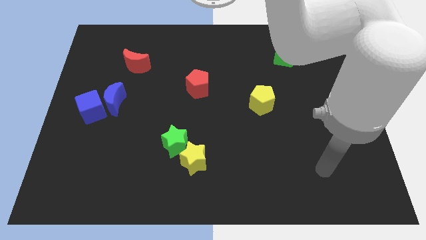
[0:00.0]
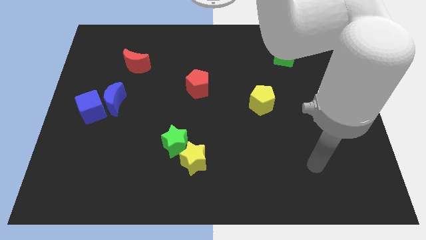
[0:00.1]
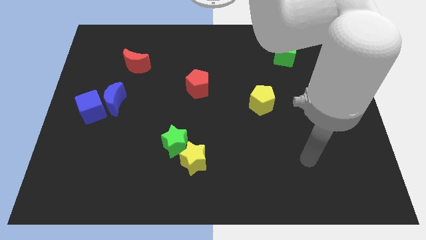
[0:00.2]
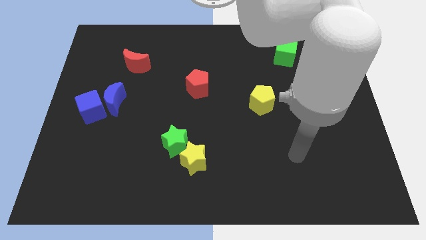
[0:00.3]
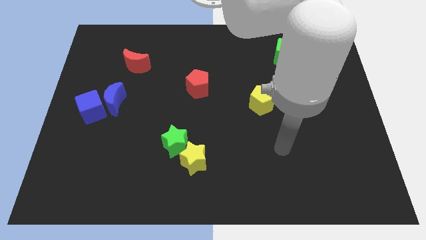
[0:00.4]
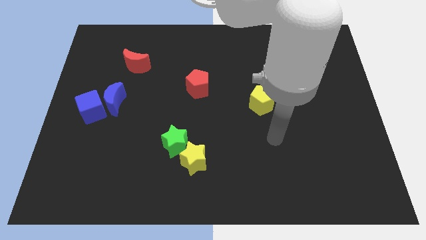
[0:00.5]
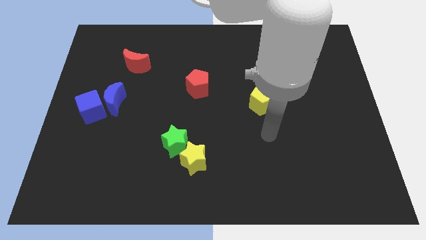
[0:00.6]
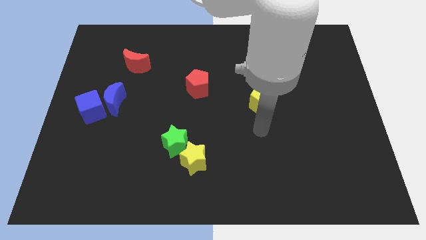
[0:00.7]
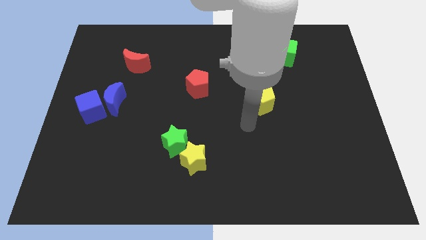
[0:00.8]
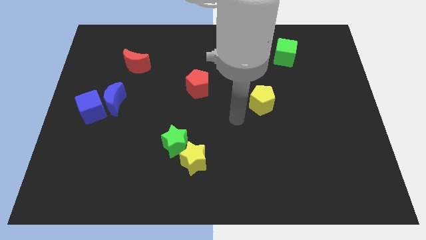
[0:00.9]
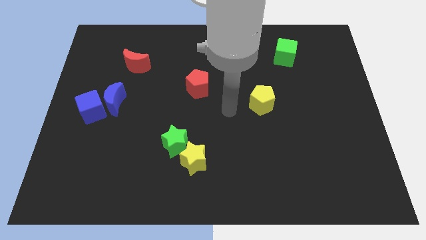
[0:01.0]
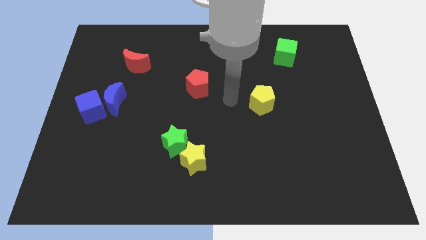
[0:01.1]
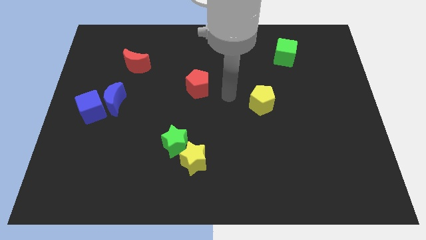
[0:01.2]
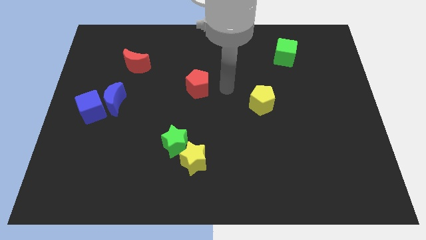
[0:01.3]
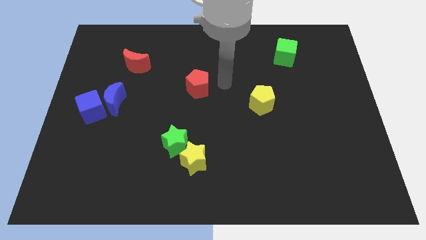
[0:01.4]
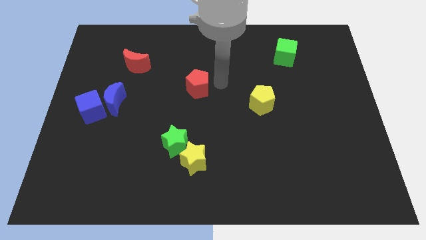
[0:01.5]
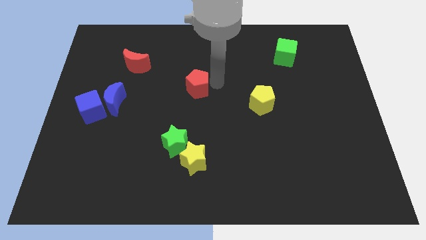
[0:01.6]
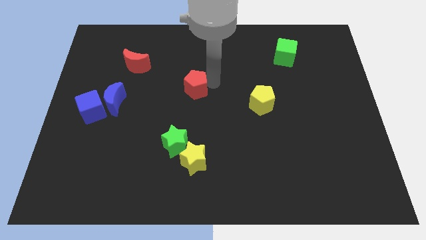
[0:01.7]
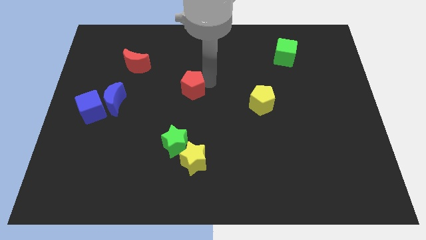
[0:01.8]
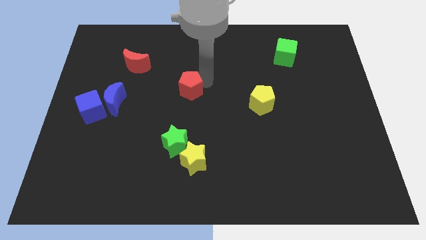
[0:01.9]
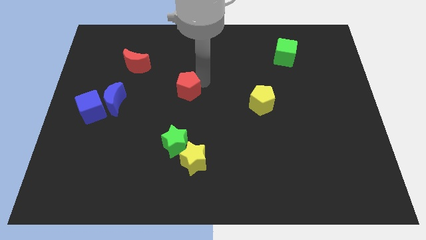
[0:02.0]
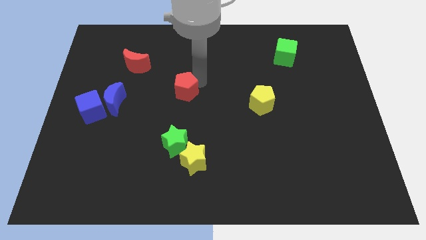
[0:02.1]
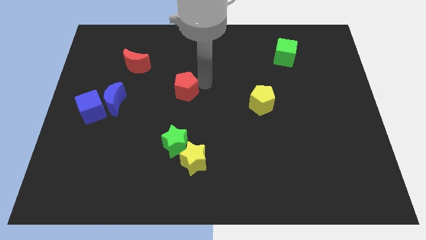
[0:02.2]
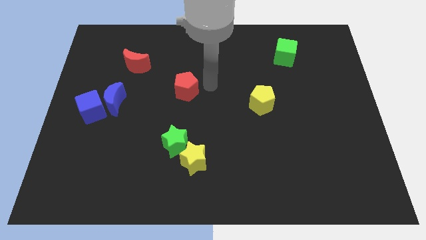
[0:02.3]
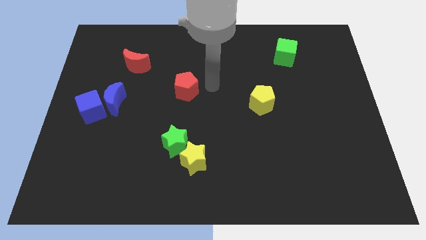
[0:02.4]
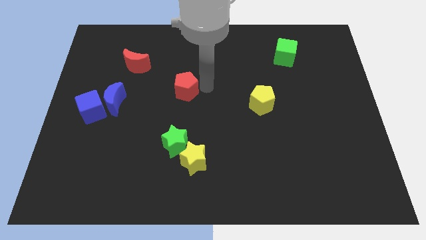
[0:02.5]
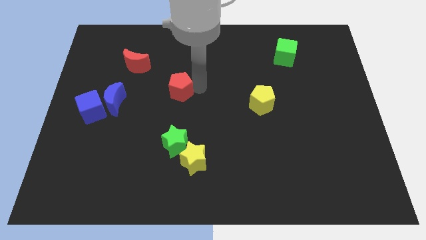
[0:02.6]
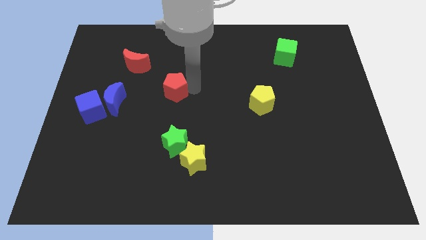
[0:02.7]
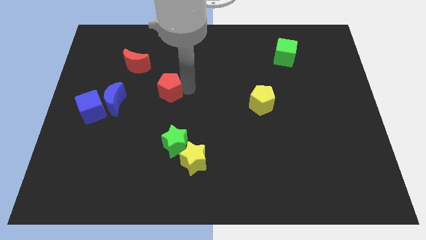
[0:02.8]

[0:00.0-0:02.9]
slightly push the red pentagon to the left

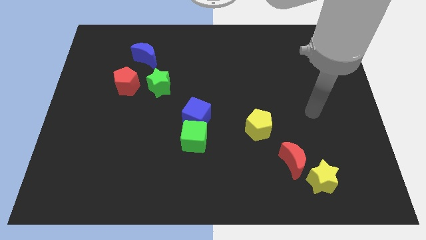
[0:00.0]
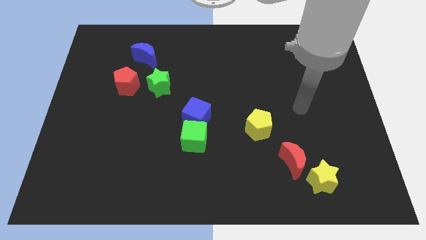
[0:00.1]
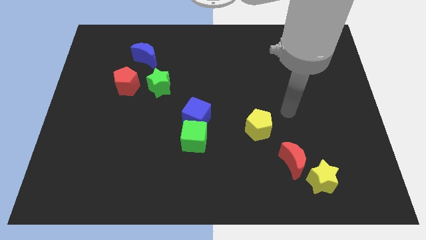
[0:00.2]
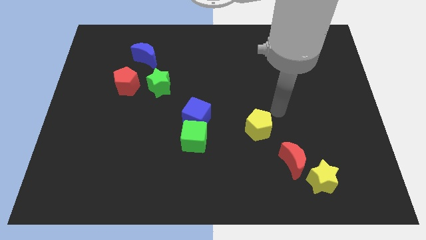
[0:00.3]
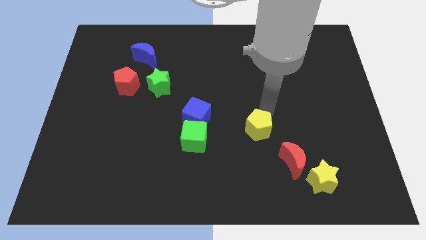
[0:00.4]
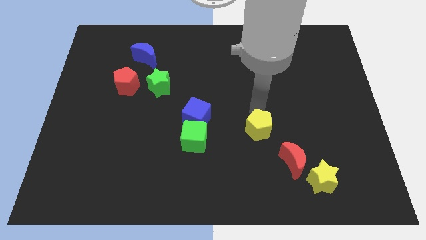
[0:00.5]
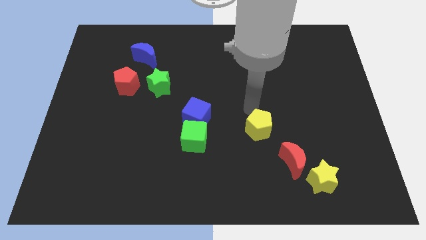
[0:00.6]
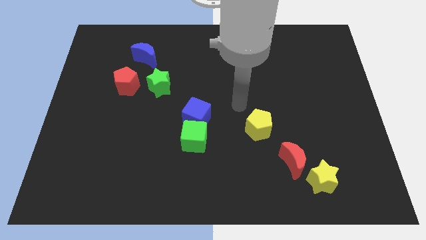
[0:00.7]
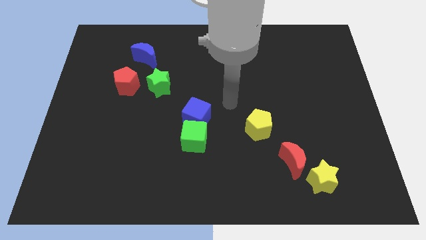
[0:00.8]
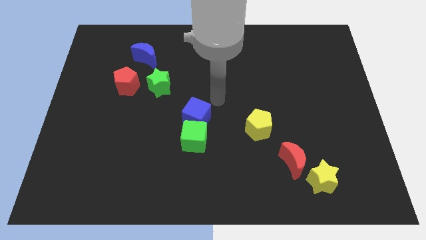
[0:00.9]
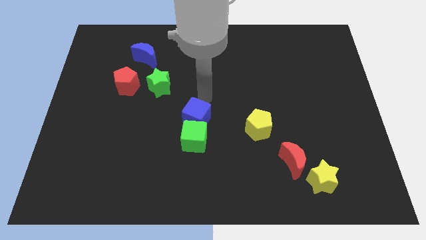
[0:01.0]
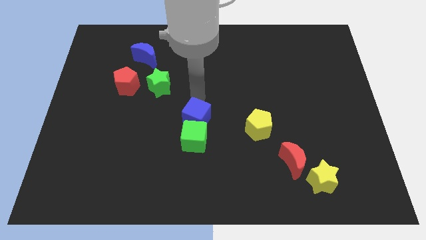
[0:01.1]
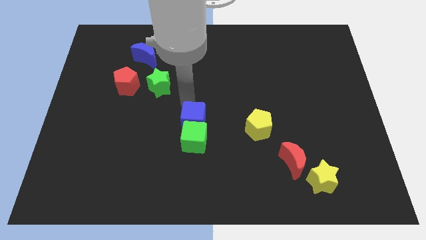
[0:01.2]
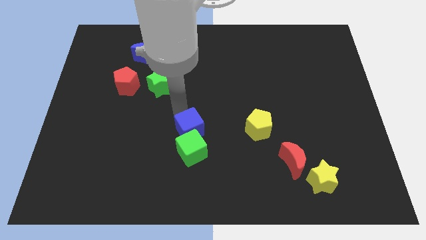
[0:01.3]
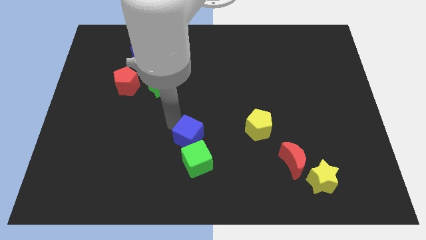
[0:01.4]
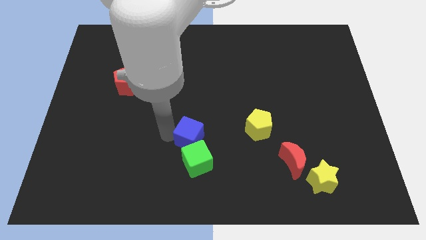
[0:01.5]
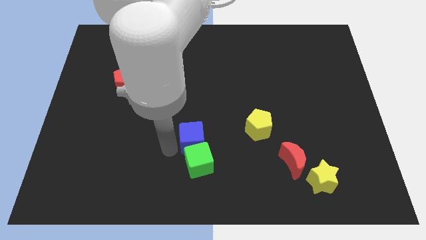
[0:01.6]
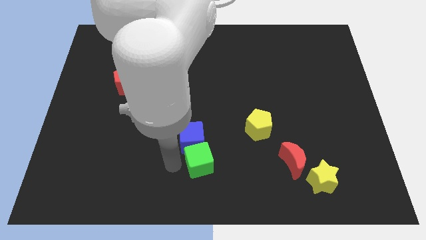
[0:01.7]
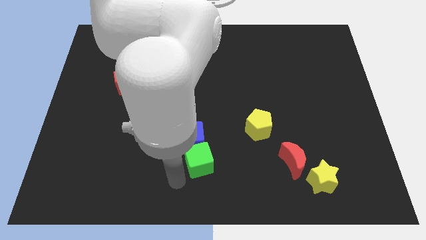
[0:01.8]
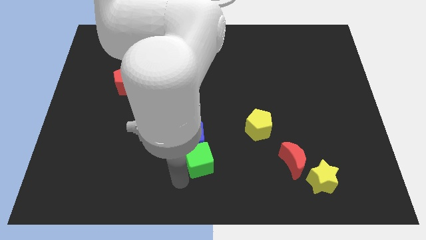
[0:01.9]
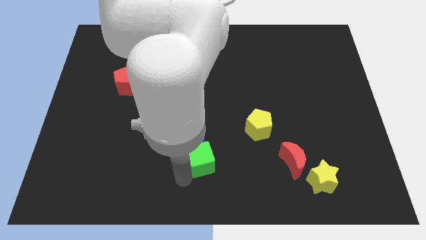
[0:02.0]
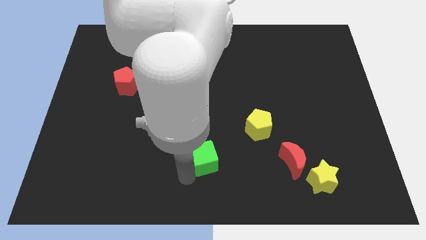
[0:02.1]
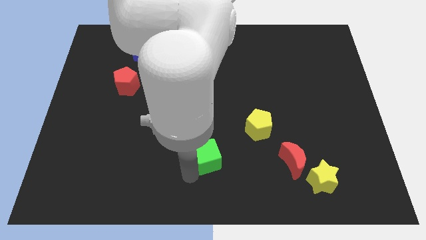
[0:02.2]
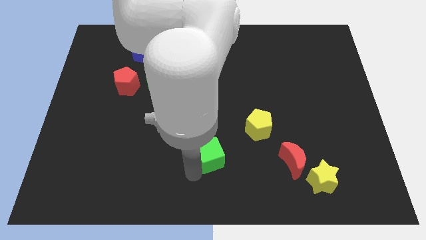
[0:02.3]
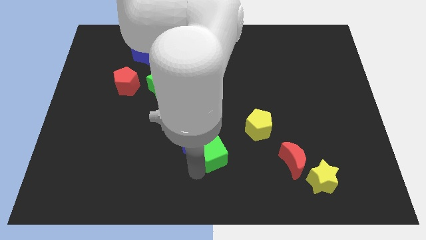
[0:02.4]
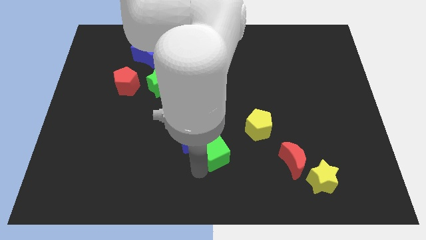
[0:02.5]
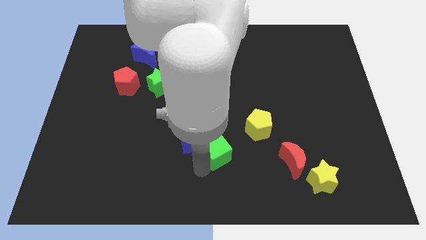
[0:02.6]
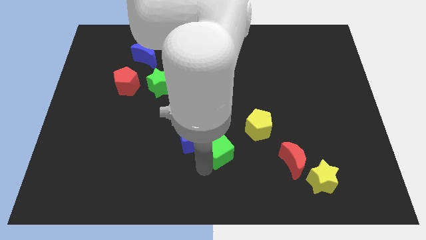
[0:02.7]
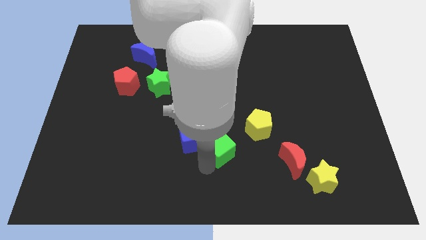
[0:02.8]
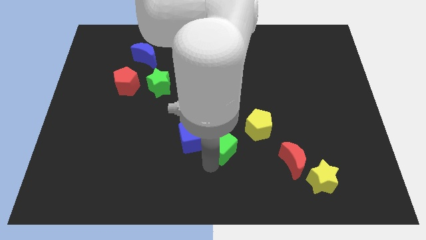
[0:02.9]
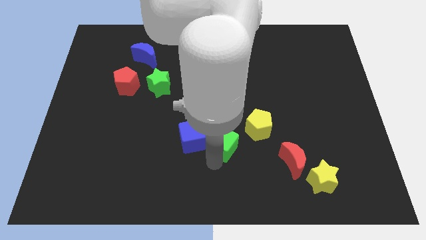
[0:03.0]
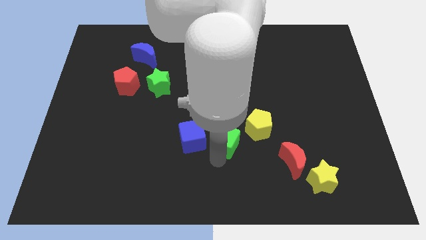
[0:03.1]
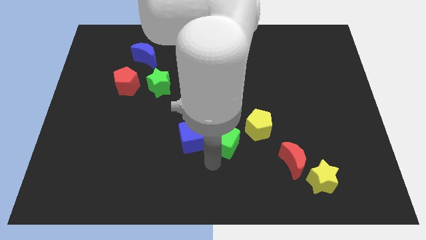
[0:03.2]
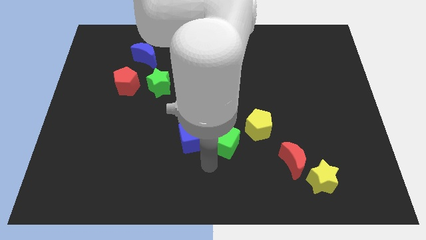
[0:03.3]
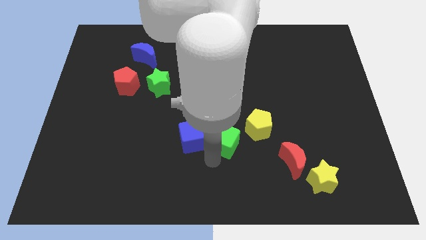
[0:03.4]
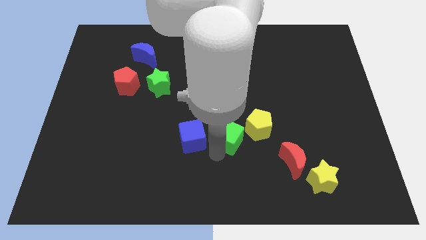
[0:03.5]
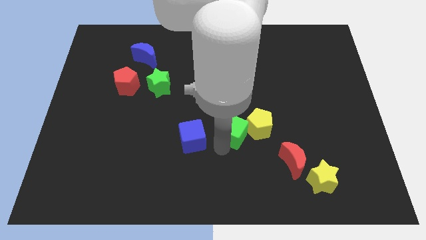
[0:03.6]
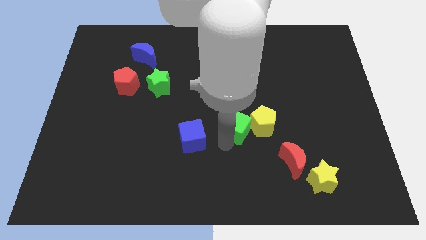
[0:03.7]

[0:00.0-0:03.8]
push the green cube upwards and right a little

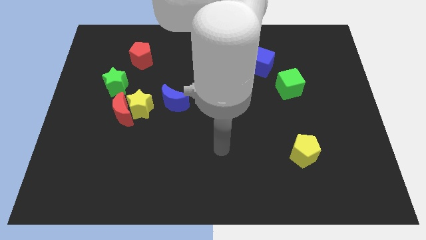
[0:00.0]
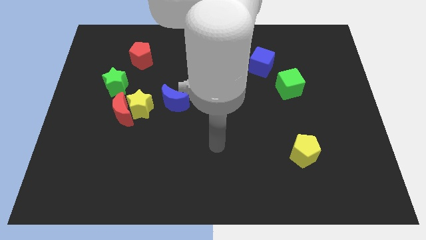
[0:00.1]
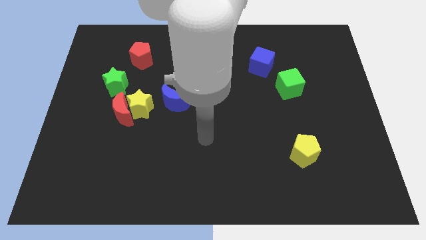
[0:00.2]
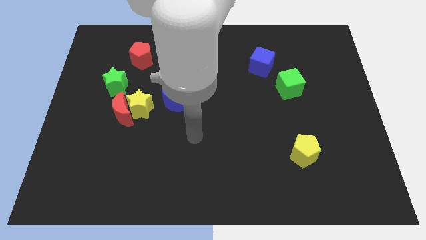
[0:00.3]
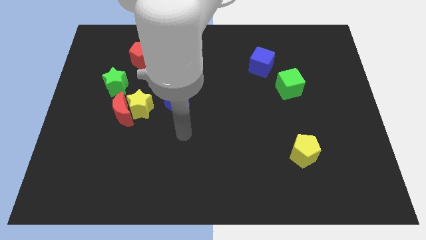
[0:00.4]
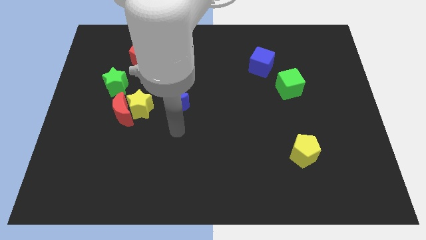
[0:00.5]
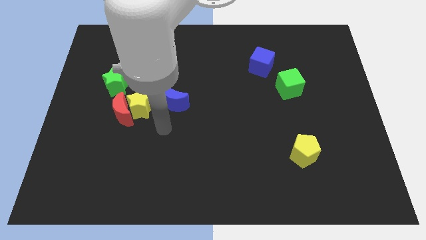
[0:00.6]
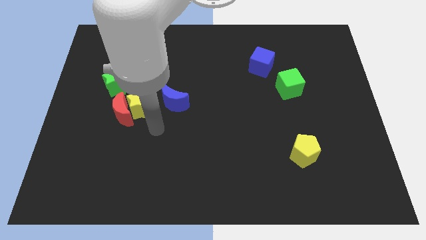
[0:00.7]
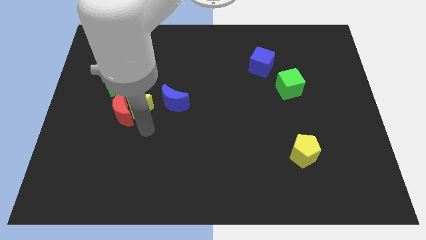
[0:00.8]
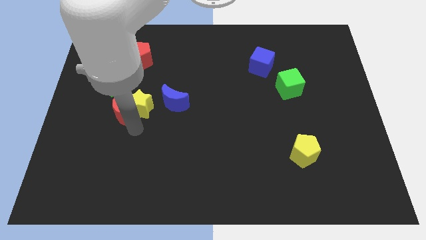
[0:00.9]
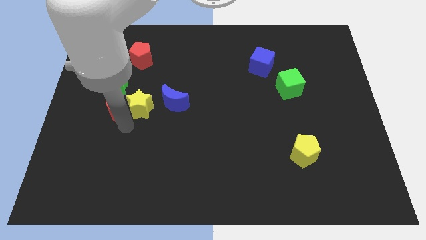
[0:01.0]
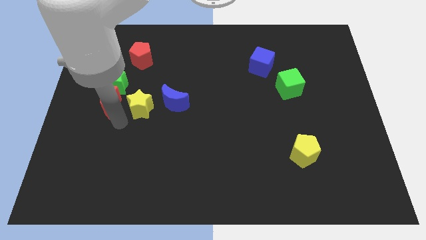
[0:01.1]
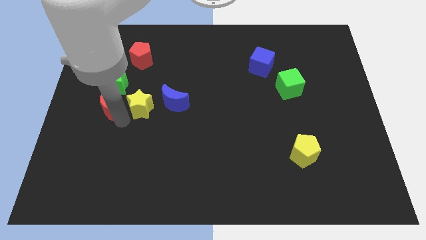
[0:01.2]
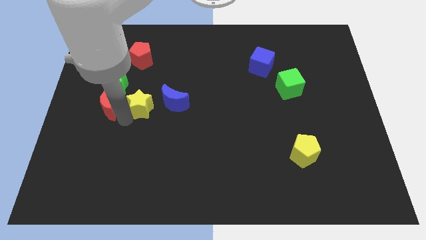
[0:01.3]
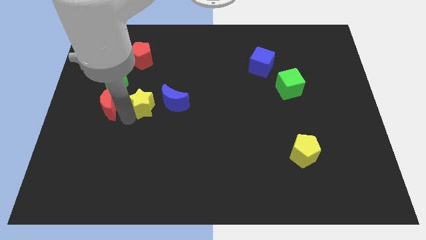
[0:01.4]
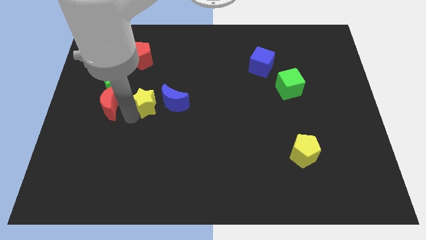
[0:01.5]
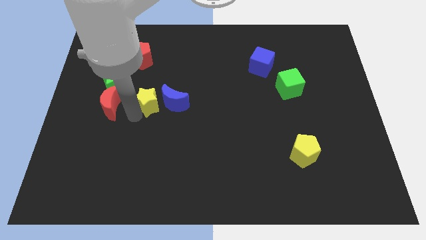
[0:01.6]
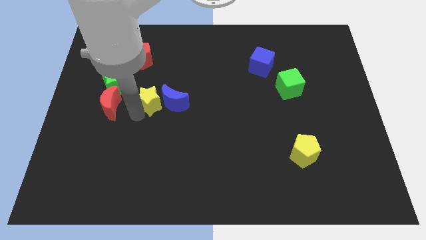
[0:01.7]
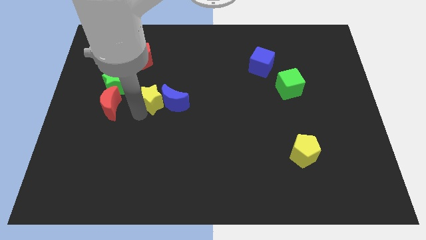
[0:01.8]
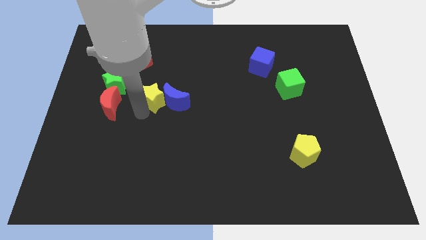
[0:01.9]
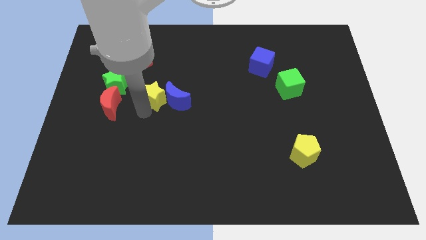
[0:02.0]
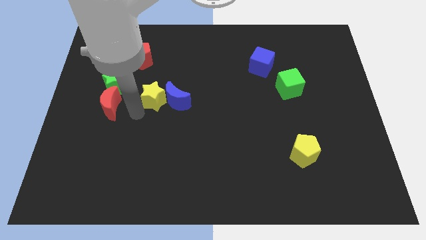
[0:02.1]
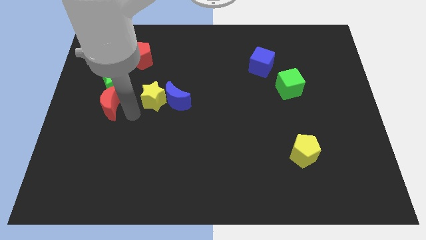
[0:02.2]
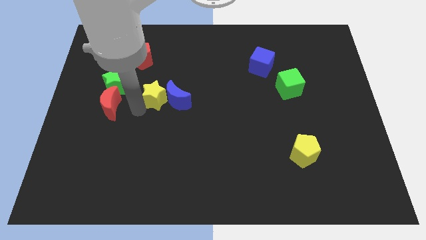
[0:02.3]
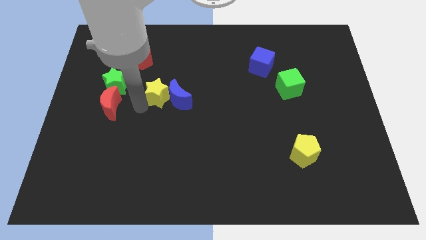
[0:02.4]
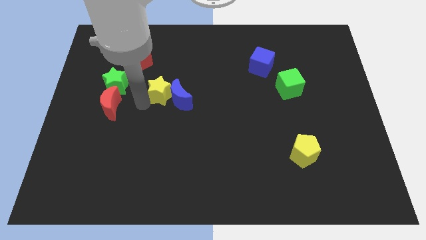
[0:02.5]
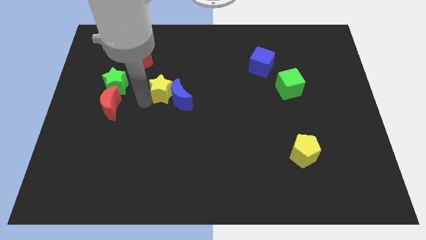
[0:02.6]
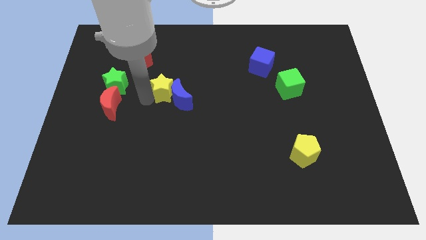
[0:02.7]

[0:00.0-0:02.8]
push the yellow star upwards and then right a little
